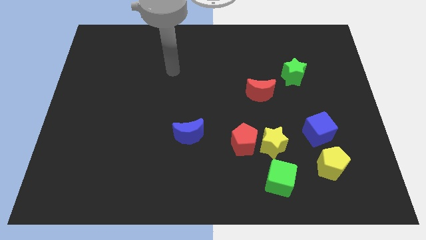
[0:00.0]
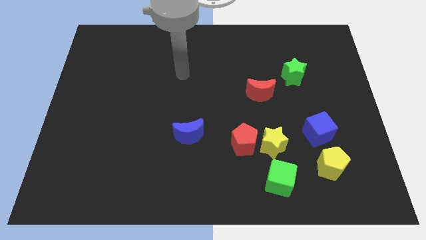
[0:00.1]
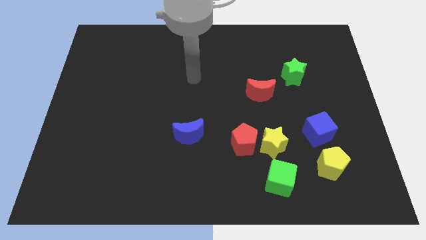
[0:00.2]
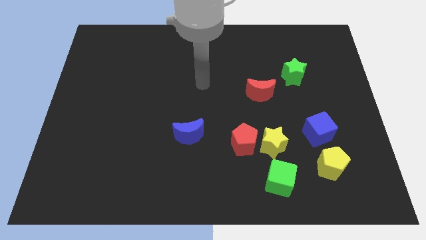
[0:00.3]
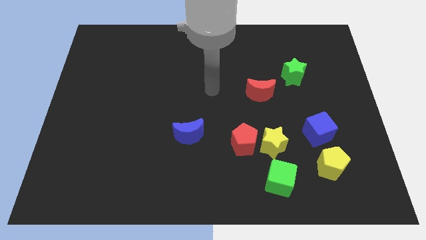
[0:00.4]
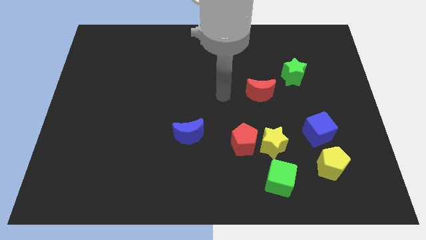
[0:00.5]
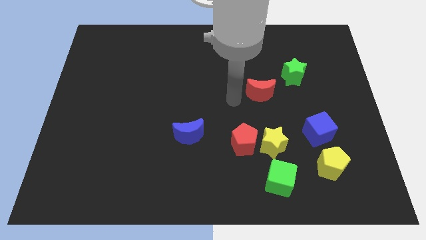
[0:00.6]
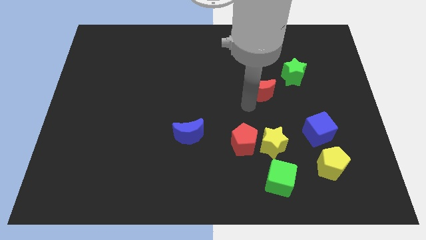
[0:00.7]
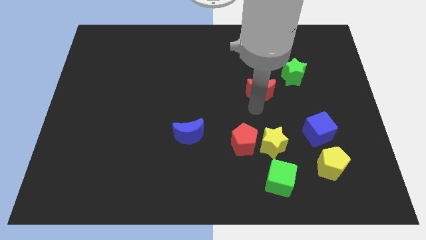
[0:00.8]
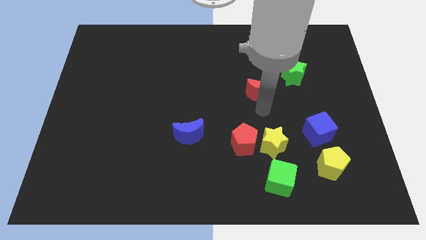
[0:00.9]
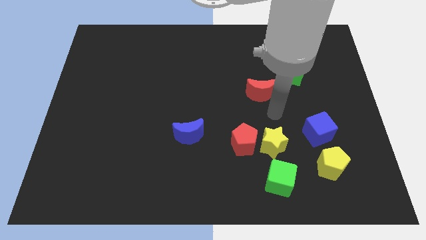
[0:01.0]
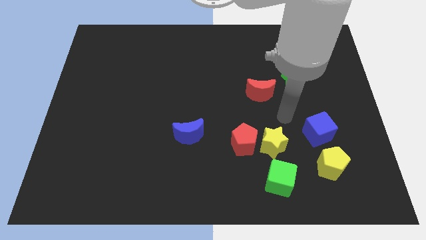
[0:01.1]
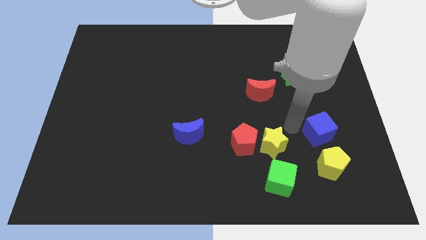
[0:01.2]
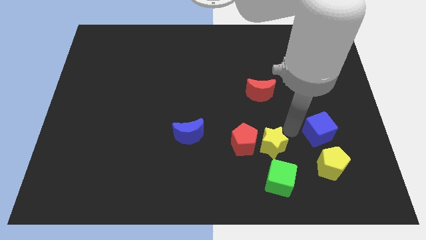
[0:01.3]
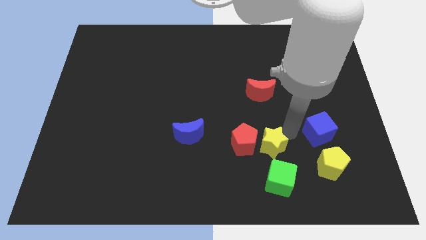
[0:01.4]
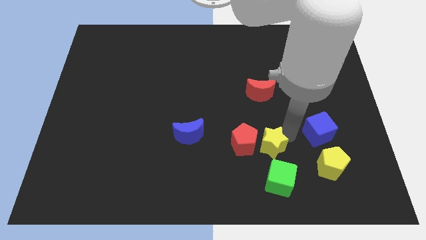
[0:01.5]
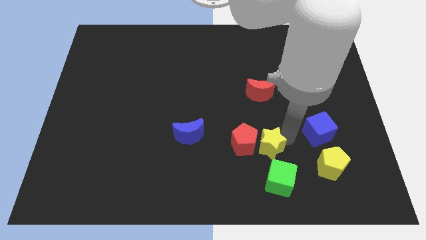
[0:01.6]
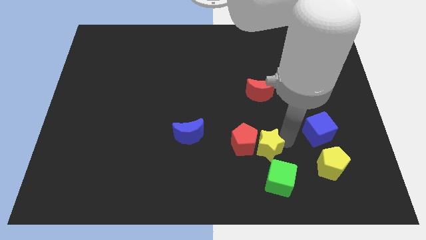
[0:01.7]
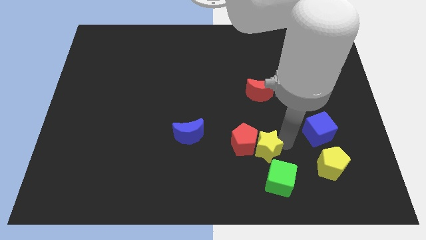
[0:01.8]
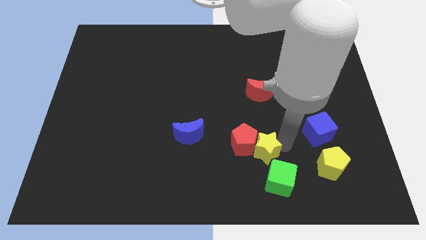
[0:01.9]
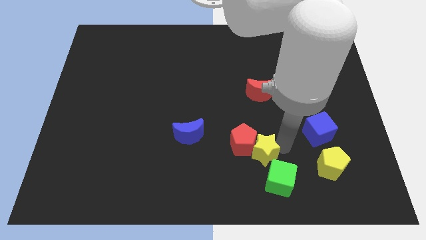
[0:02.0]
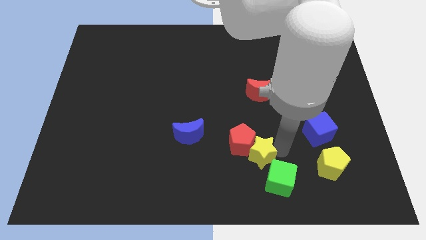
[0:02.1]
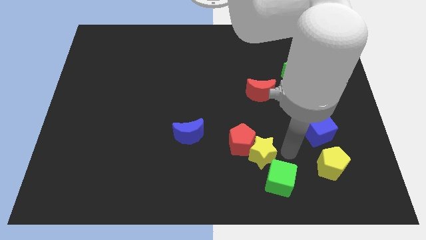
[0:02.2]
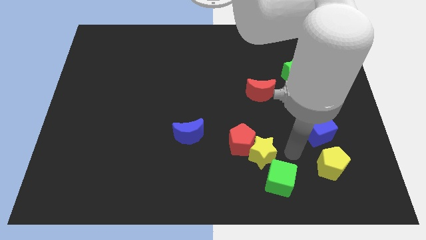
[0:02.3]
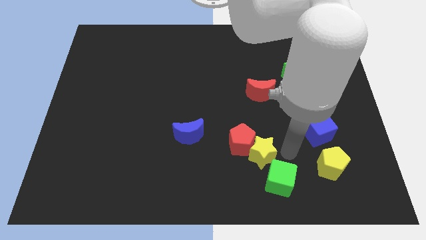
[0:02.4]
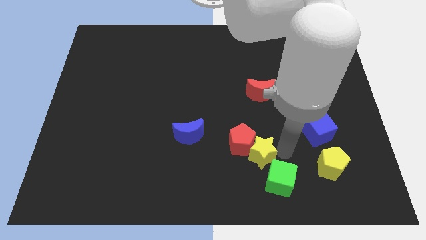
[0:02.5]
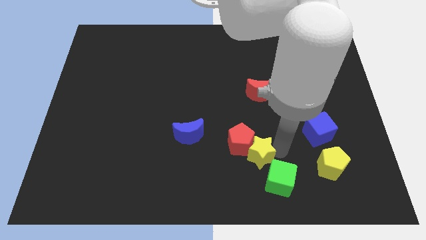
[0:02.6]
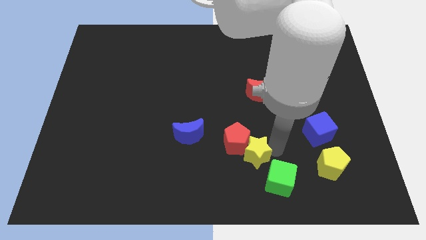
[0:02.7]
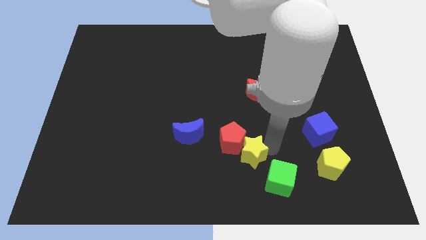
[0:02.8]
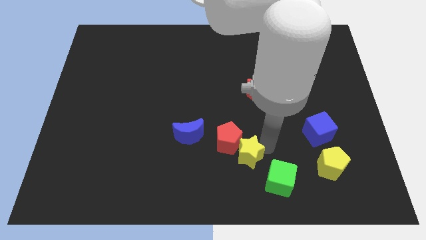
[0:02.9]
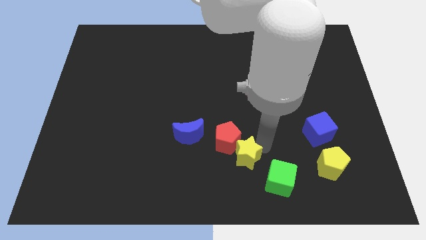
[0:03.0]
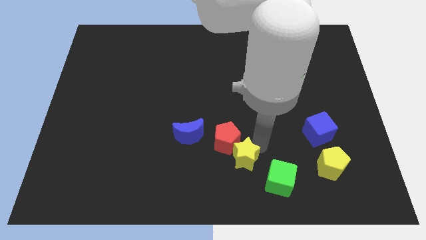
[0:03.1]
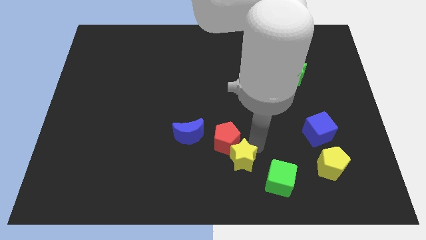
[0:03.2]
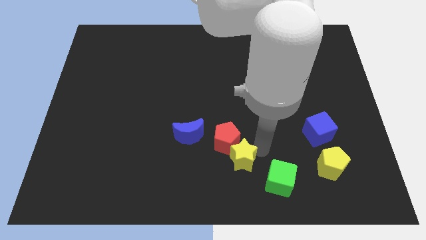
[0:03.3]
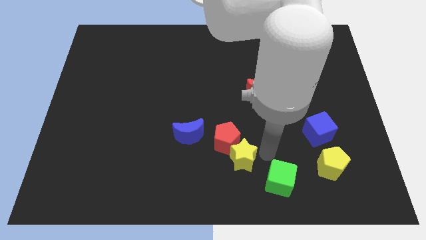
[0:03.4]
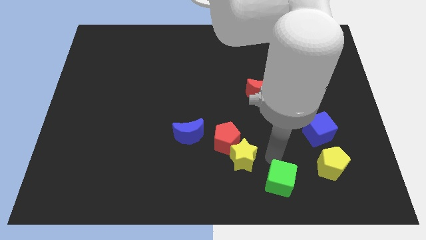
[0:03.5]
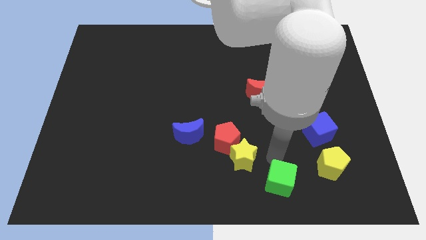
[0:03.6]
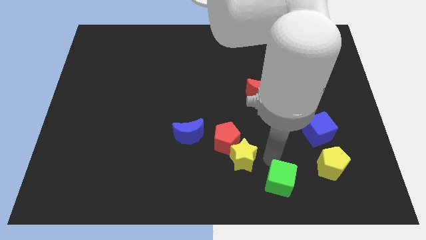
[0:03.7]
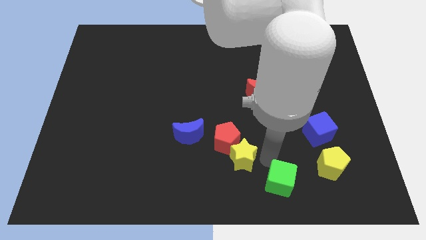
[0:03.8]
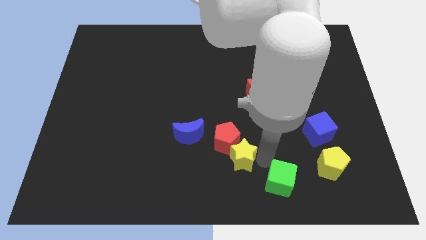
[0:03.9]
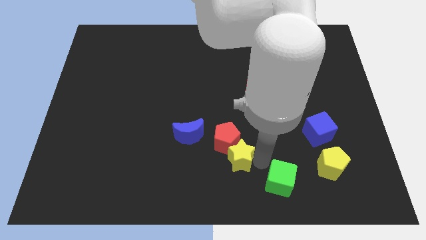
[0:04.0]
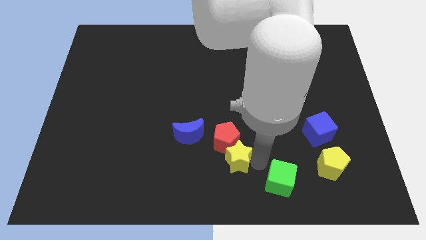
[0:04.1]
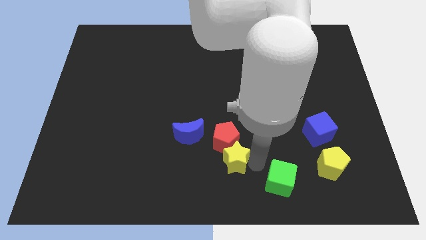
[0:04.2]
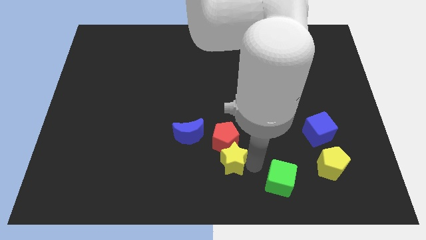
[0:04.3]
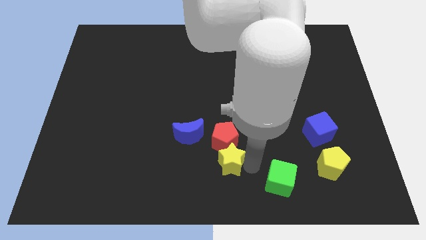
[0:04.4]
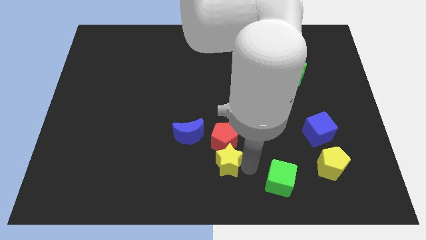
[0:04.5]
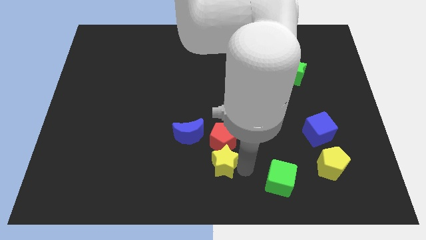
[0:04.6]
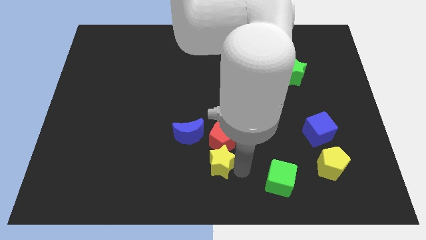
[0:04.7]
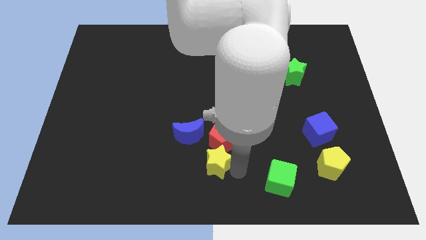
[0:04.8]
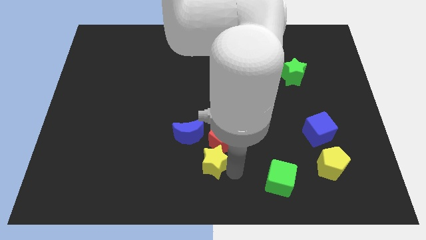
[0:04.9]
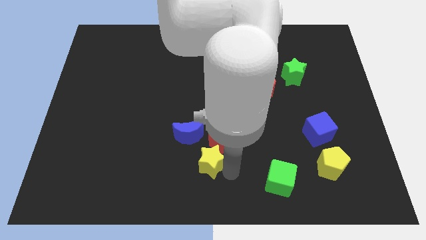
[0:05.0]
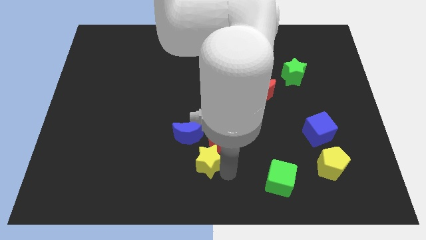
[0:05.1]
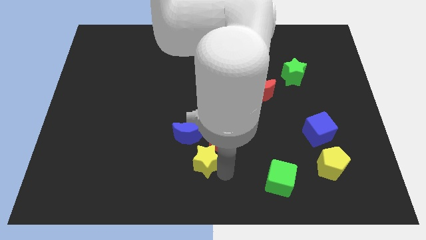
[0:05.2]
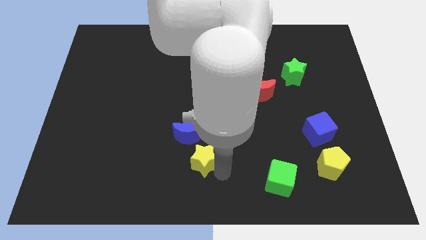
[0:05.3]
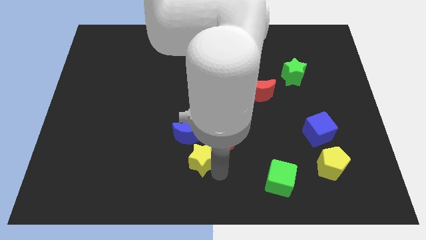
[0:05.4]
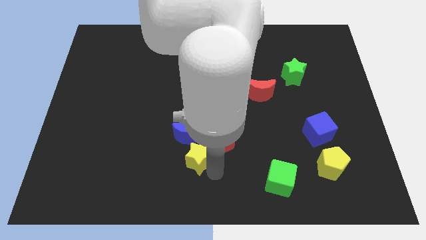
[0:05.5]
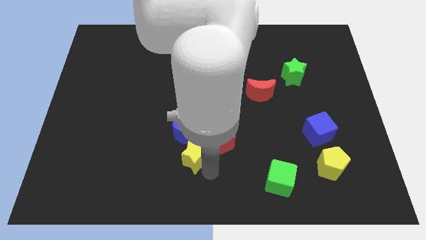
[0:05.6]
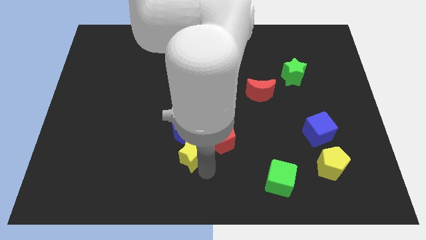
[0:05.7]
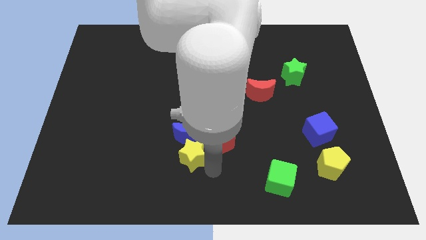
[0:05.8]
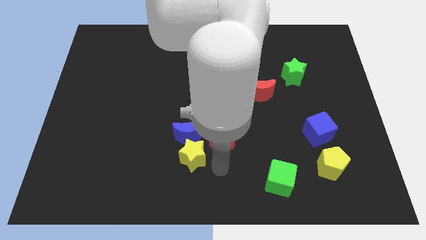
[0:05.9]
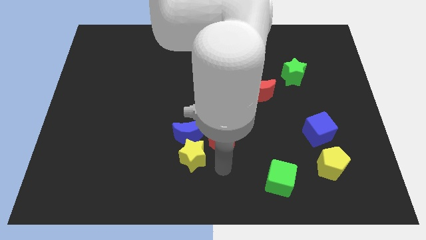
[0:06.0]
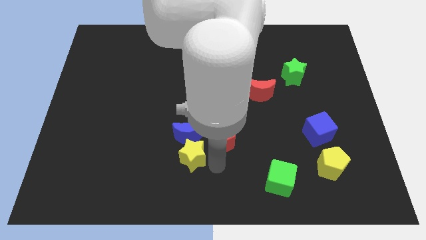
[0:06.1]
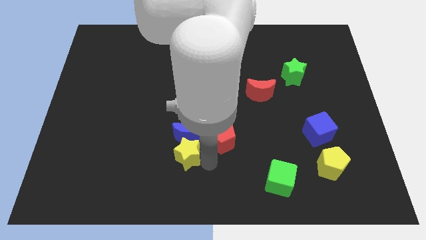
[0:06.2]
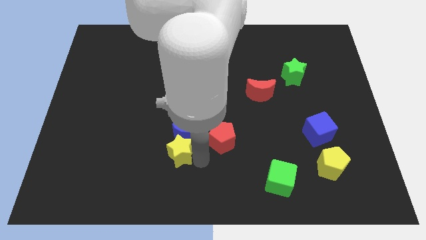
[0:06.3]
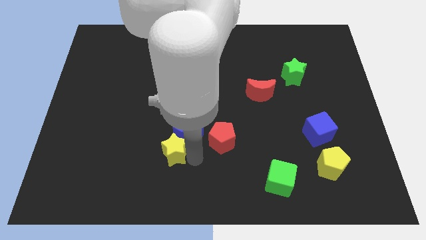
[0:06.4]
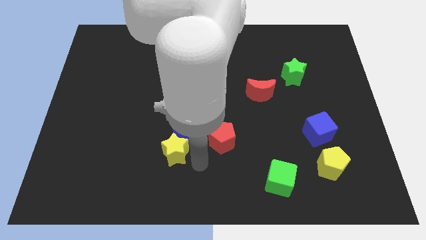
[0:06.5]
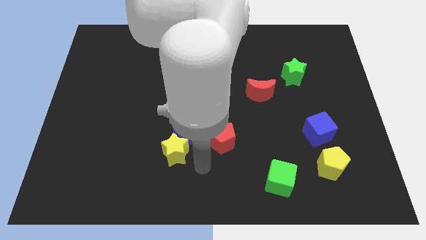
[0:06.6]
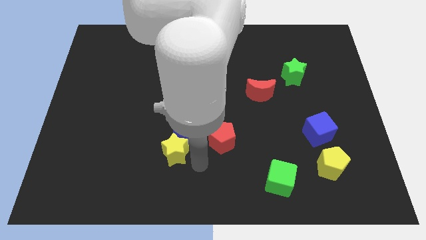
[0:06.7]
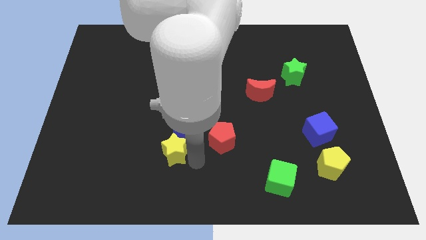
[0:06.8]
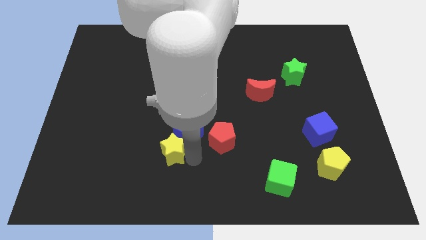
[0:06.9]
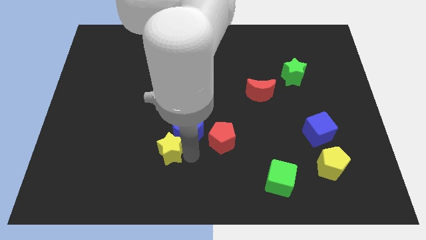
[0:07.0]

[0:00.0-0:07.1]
slide the yellow star just left of the blue moon
